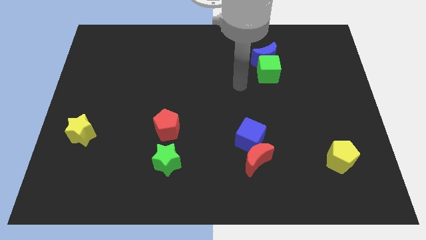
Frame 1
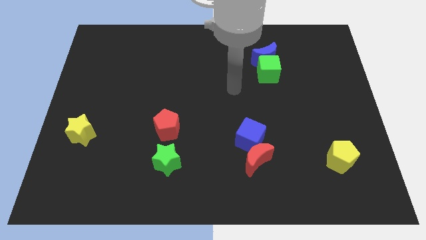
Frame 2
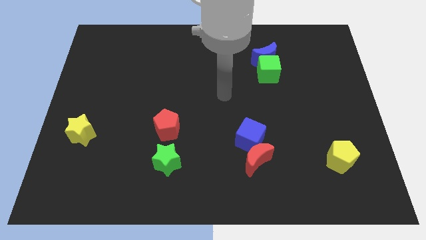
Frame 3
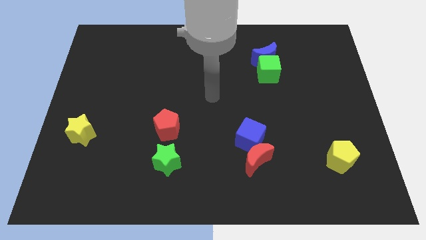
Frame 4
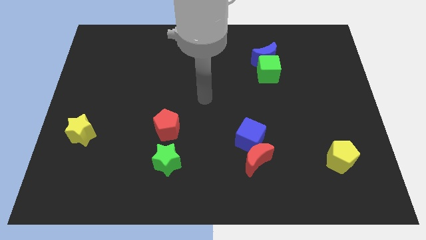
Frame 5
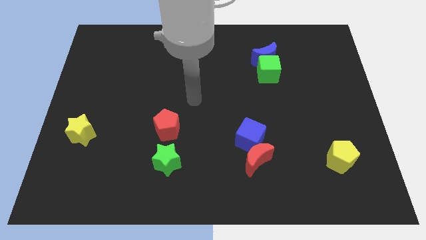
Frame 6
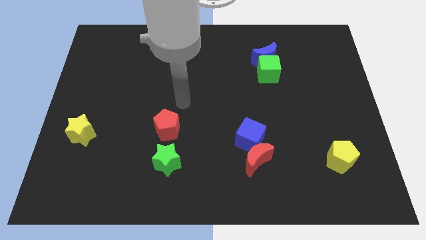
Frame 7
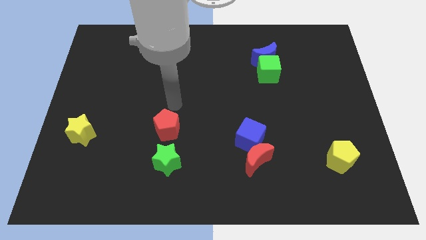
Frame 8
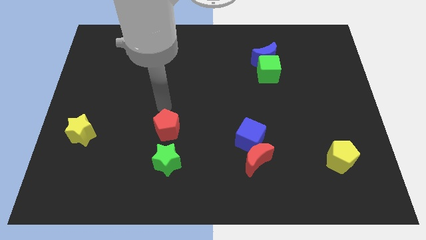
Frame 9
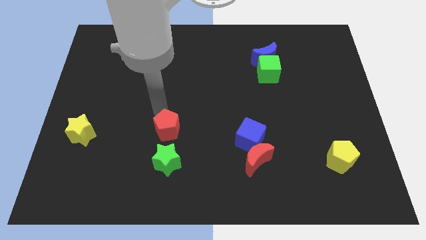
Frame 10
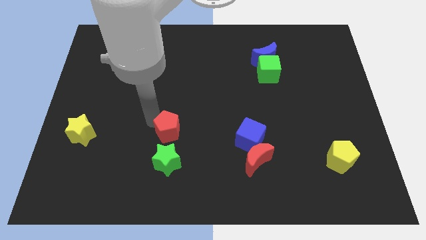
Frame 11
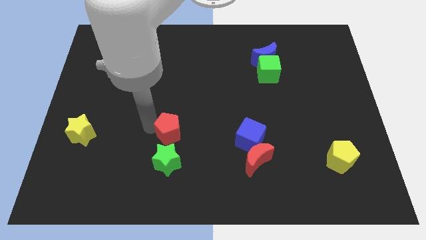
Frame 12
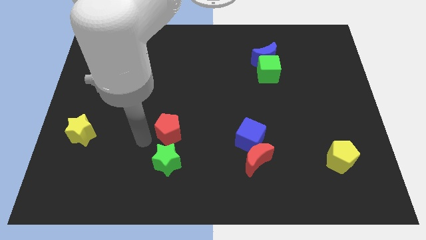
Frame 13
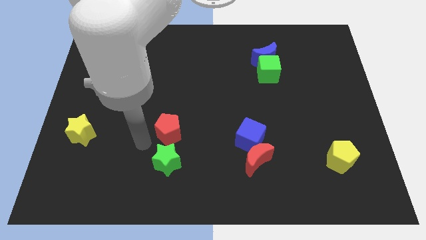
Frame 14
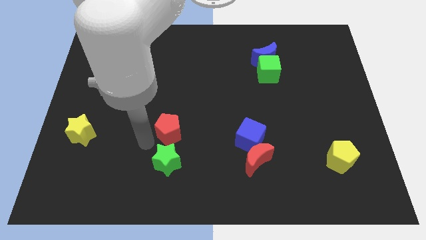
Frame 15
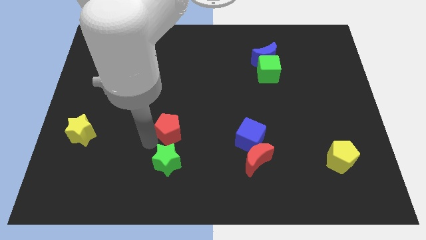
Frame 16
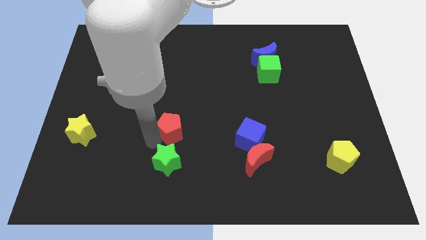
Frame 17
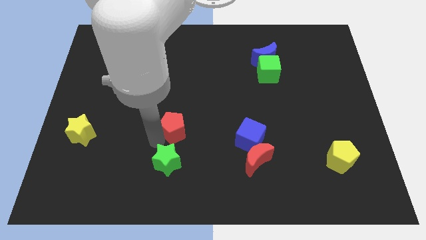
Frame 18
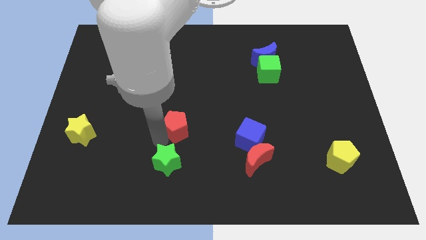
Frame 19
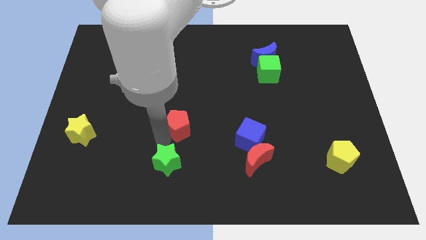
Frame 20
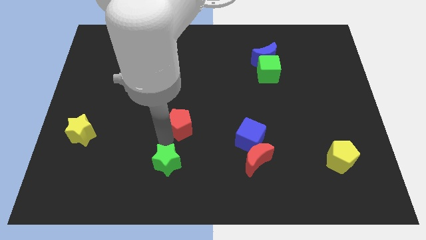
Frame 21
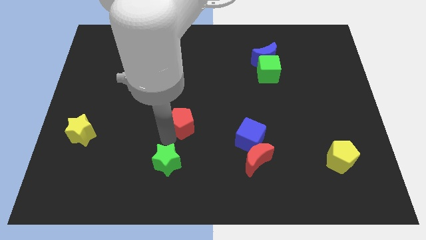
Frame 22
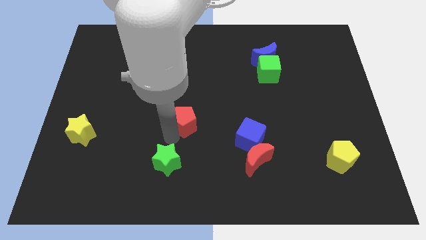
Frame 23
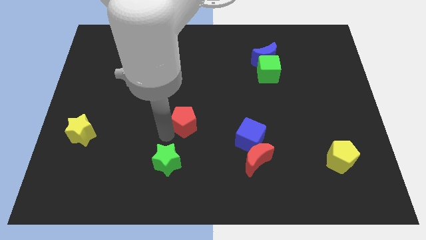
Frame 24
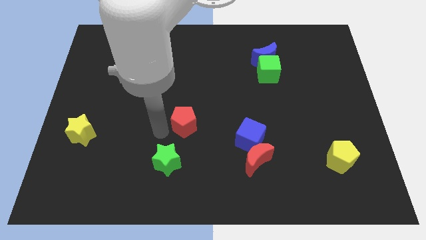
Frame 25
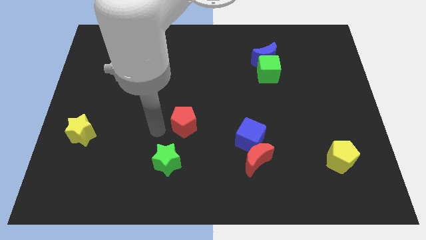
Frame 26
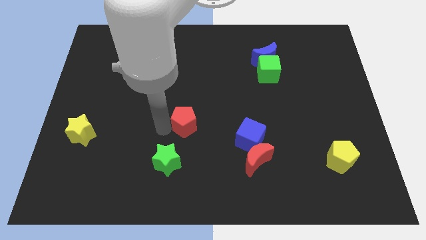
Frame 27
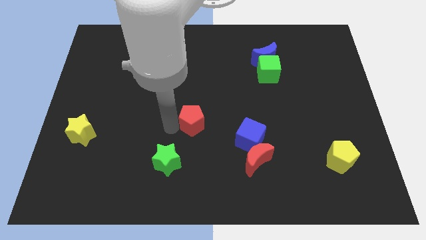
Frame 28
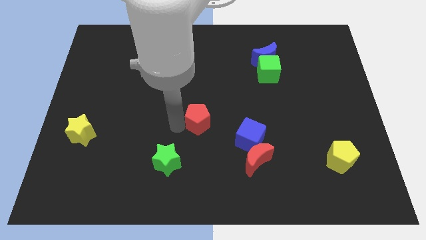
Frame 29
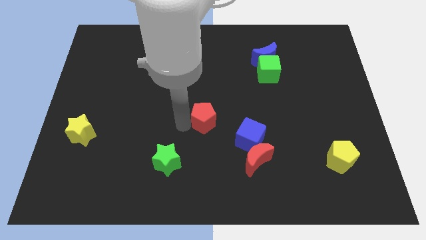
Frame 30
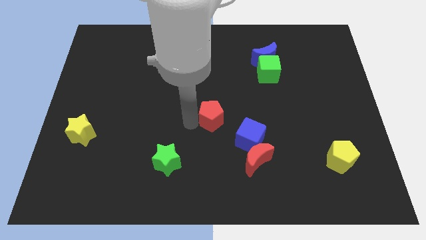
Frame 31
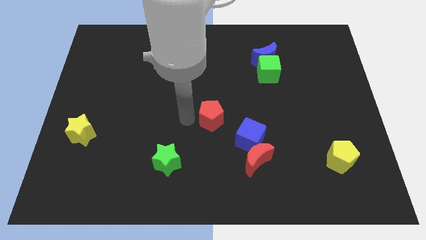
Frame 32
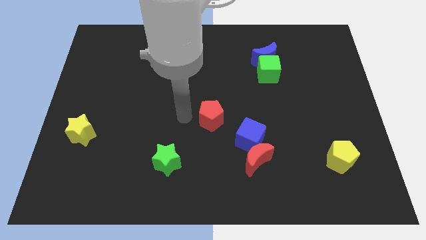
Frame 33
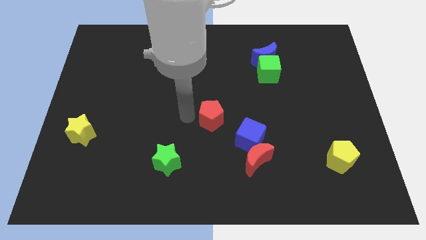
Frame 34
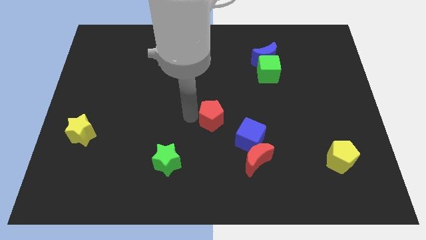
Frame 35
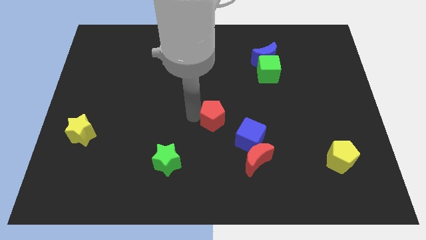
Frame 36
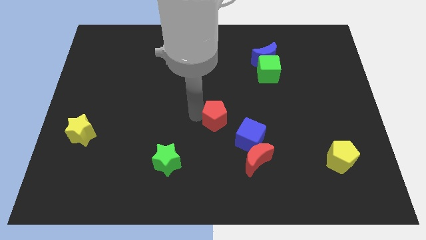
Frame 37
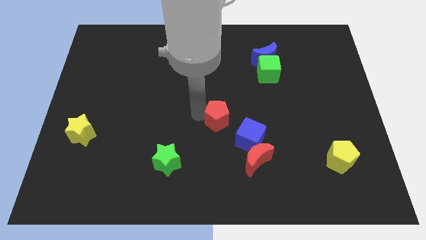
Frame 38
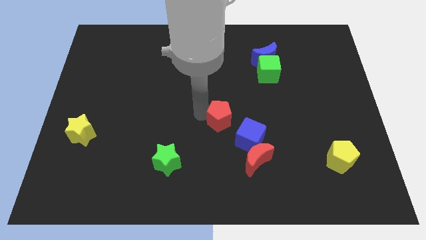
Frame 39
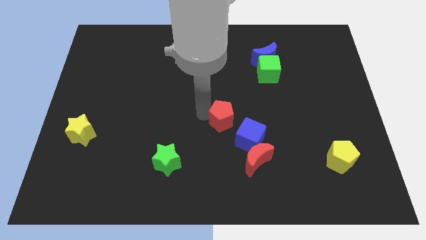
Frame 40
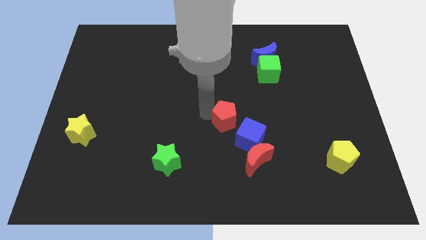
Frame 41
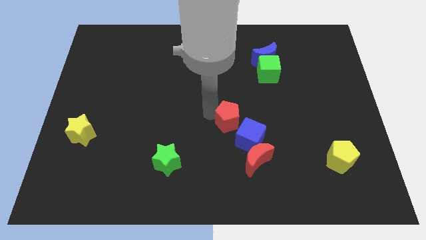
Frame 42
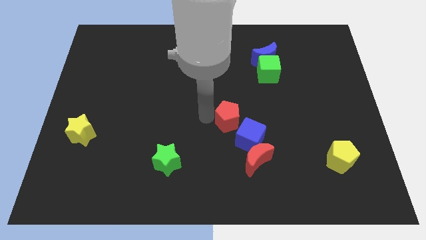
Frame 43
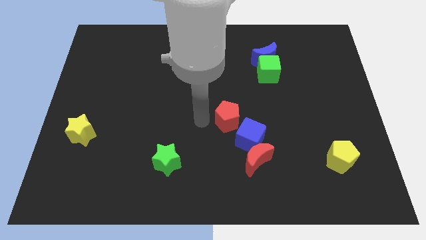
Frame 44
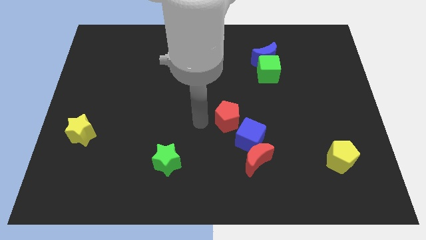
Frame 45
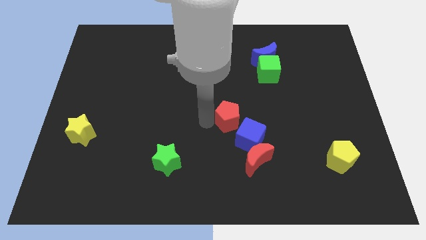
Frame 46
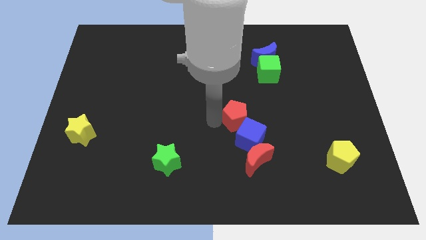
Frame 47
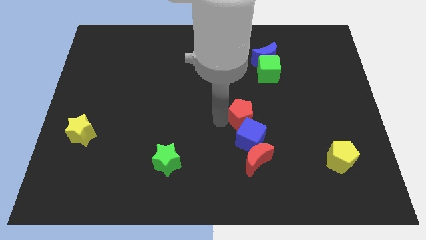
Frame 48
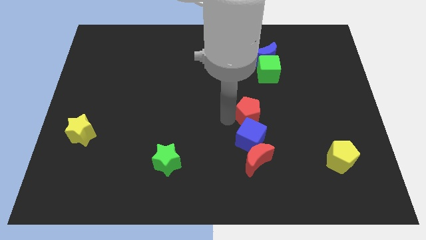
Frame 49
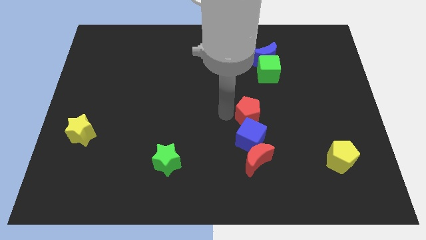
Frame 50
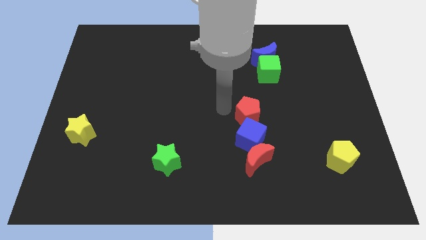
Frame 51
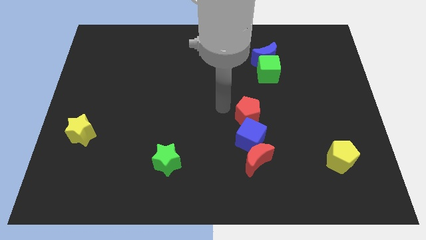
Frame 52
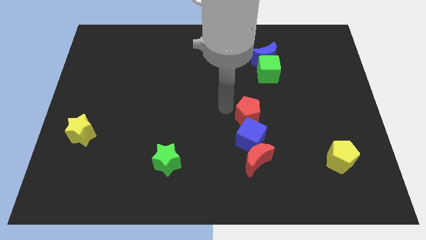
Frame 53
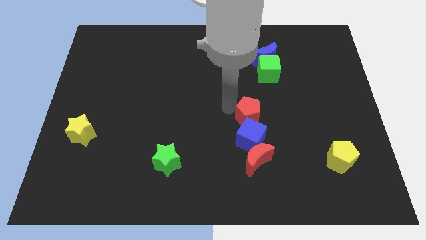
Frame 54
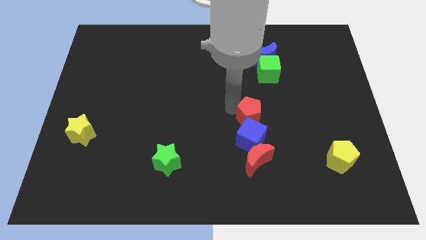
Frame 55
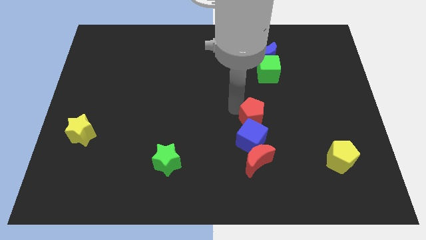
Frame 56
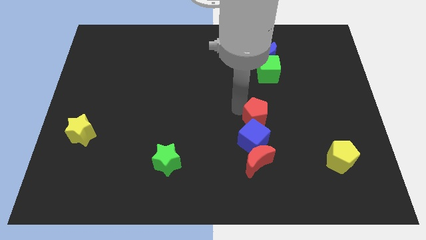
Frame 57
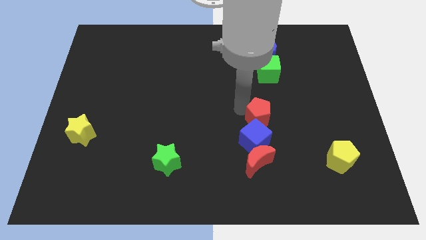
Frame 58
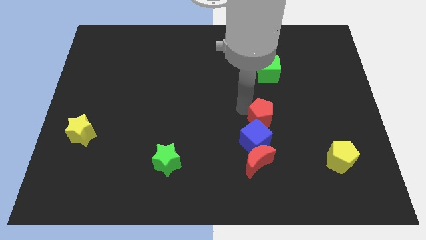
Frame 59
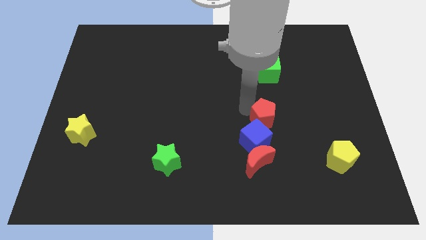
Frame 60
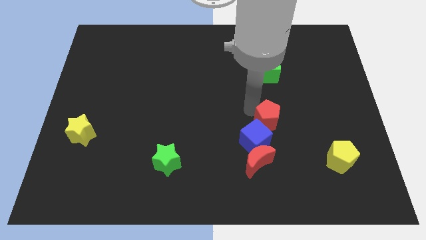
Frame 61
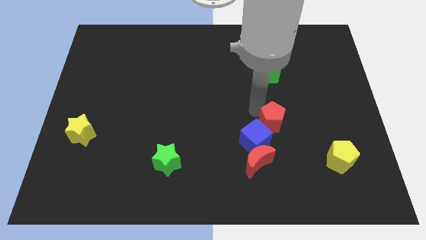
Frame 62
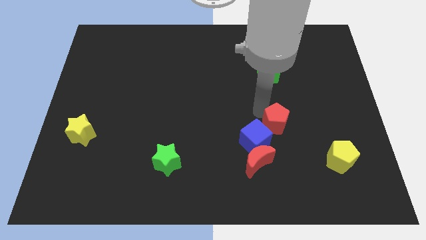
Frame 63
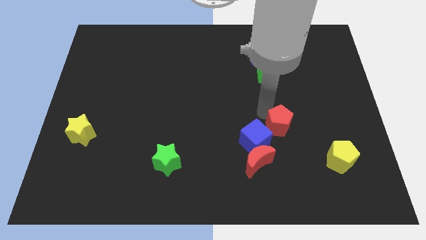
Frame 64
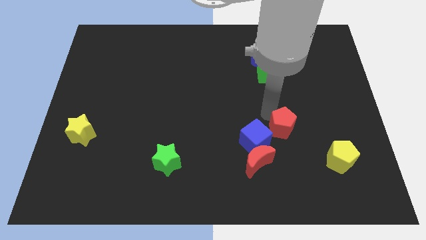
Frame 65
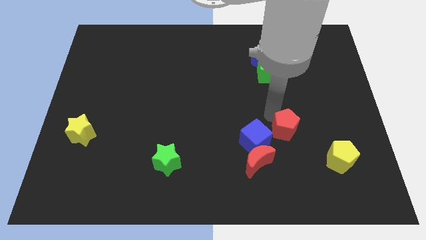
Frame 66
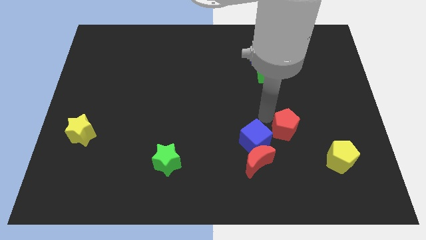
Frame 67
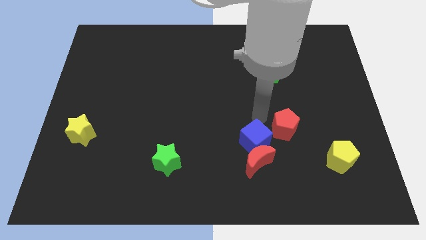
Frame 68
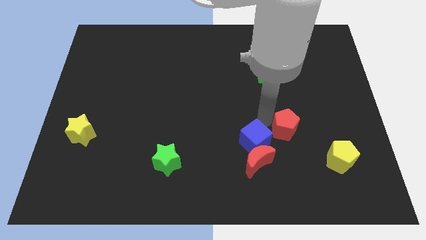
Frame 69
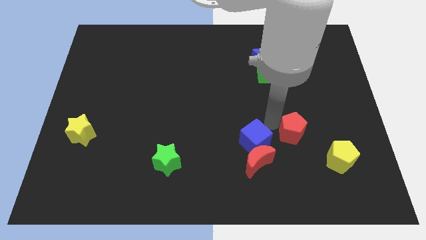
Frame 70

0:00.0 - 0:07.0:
put the red pentagon diagonally up and to the left of the yellow pentagon
